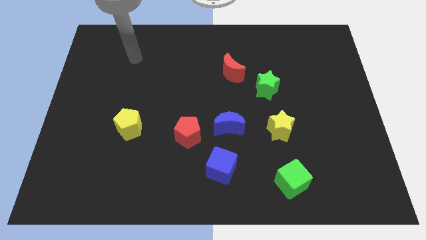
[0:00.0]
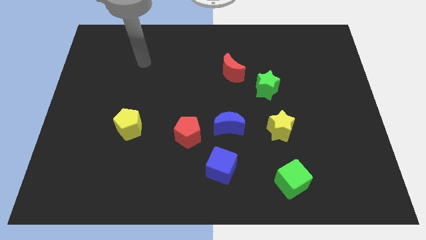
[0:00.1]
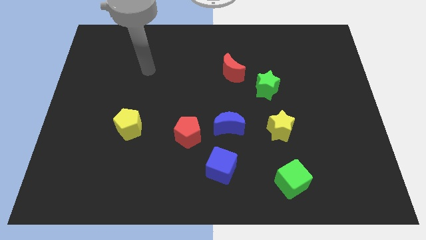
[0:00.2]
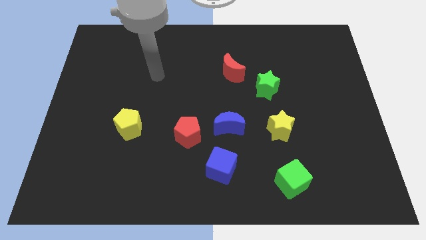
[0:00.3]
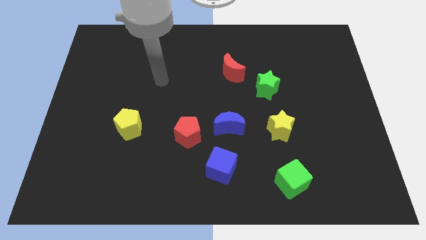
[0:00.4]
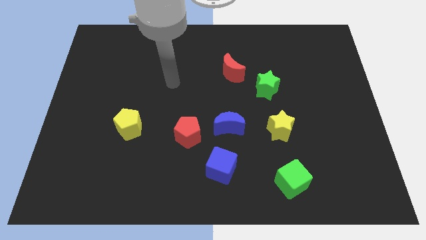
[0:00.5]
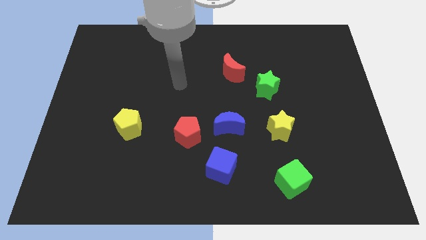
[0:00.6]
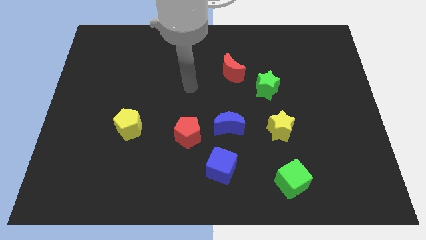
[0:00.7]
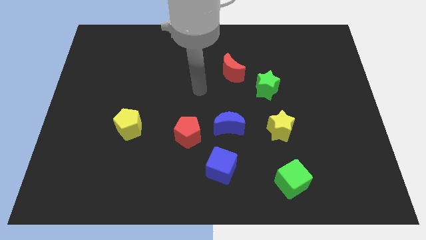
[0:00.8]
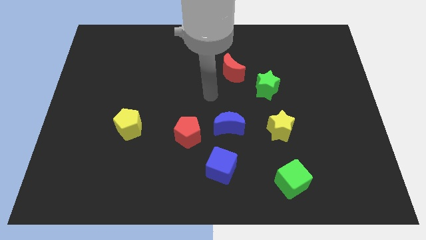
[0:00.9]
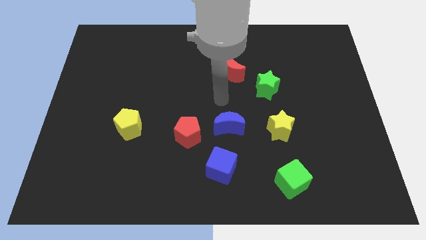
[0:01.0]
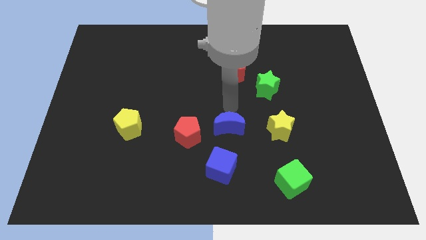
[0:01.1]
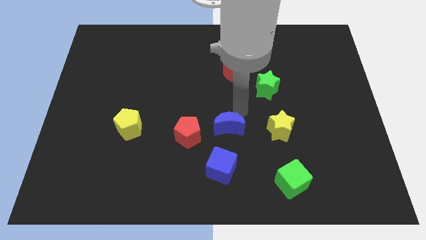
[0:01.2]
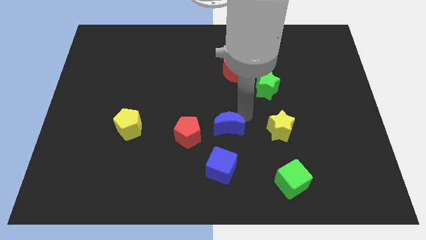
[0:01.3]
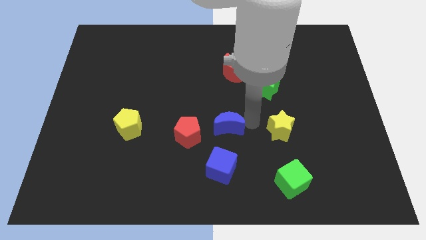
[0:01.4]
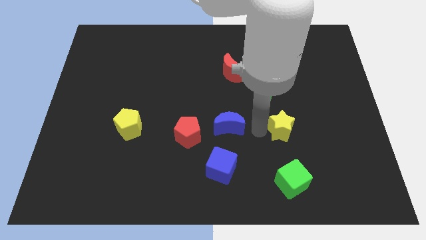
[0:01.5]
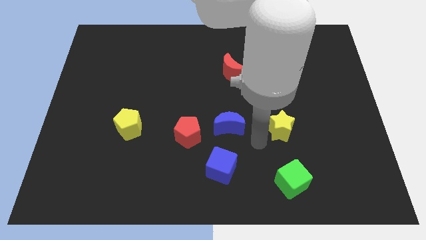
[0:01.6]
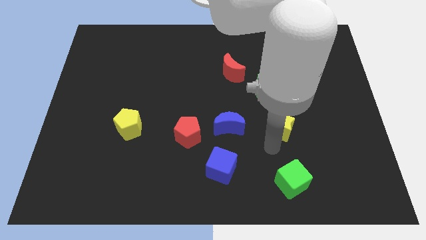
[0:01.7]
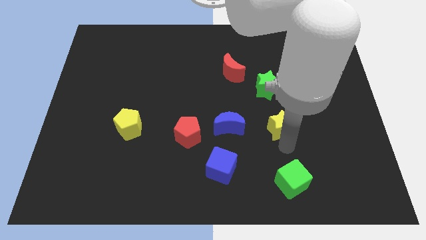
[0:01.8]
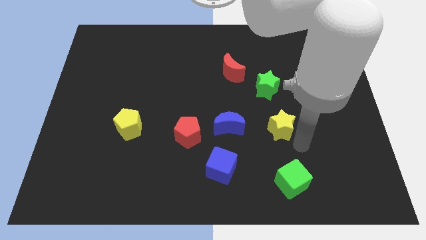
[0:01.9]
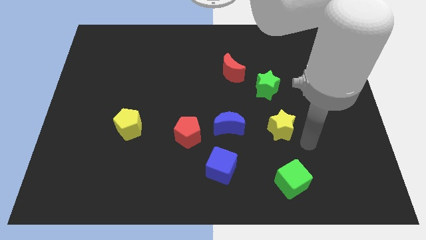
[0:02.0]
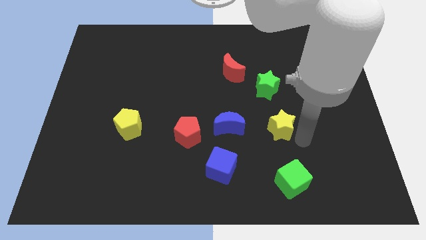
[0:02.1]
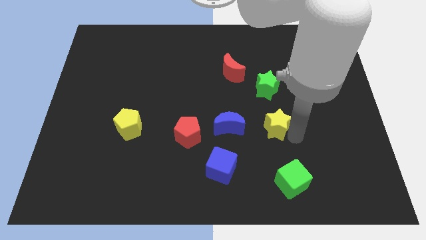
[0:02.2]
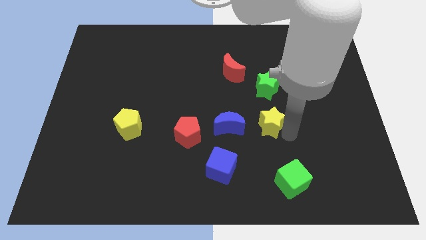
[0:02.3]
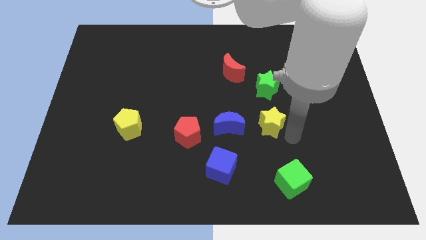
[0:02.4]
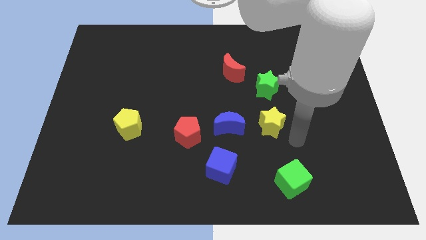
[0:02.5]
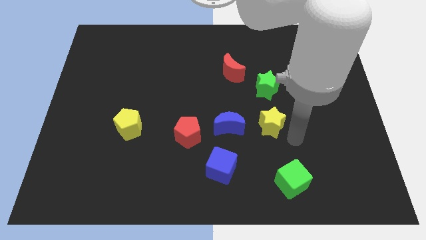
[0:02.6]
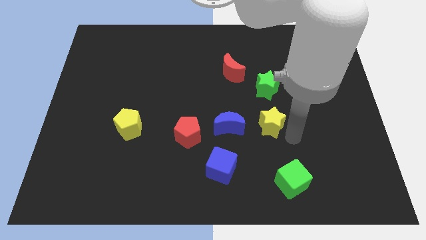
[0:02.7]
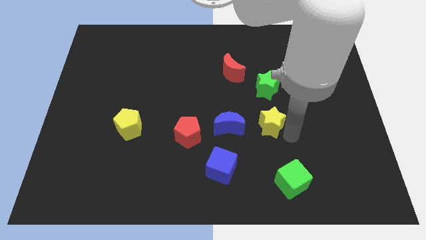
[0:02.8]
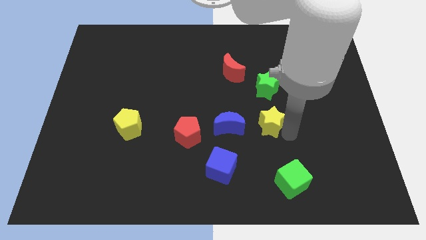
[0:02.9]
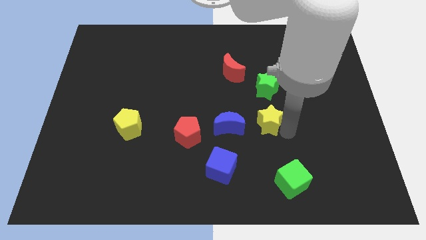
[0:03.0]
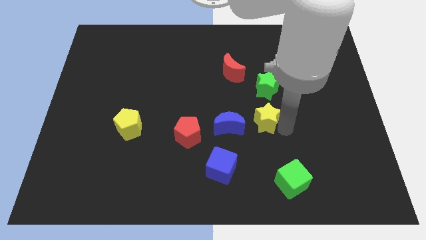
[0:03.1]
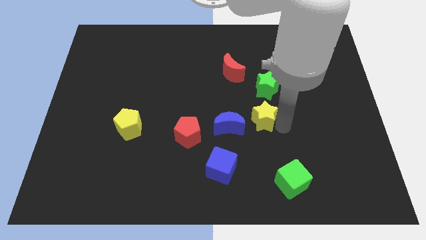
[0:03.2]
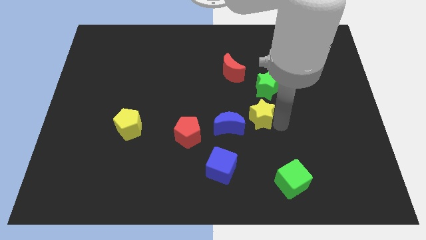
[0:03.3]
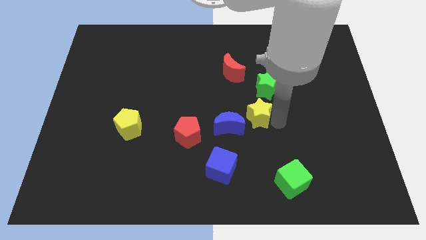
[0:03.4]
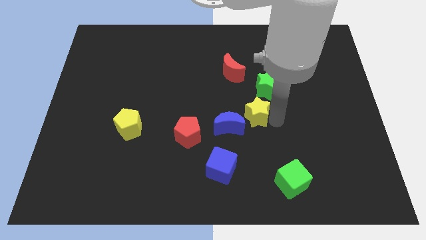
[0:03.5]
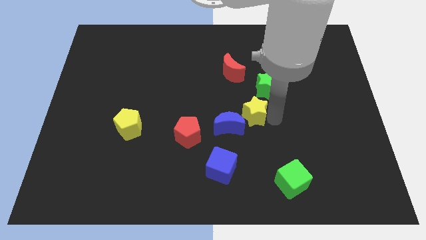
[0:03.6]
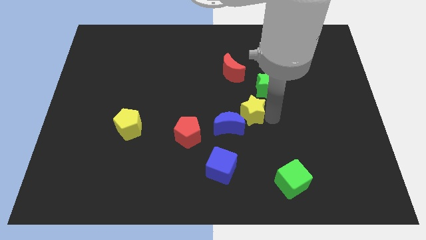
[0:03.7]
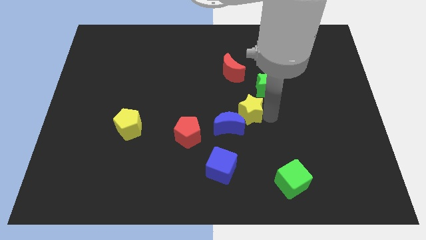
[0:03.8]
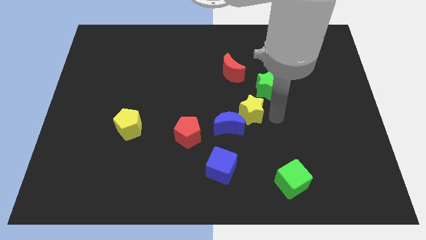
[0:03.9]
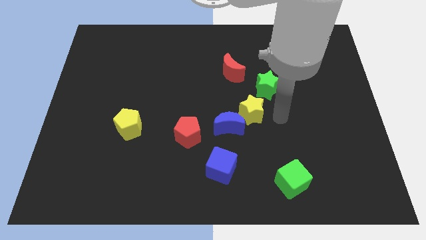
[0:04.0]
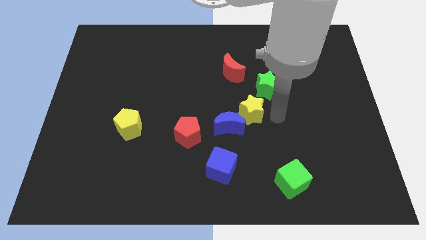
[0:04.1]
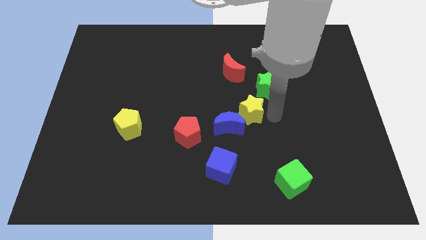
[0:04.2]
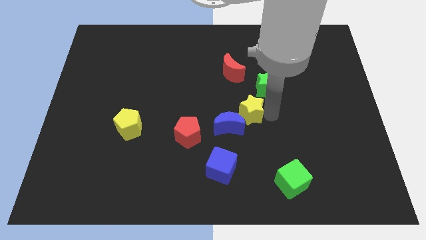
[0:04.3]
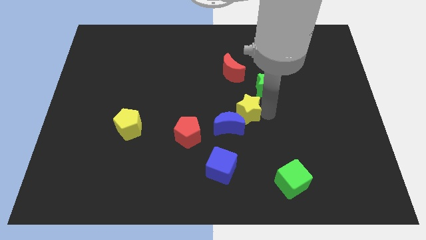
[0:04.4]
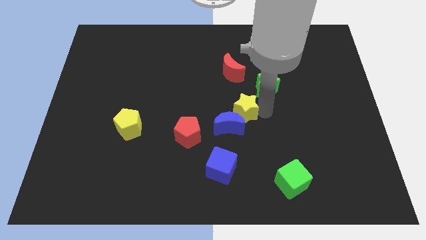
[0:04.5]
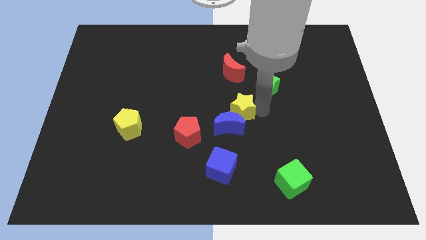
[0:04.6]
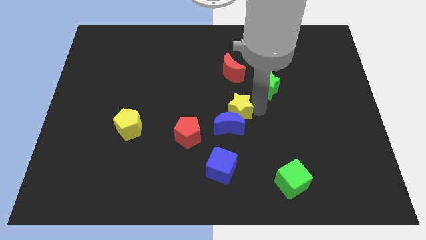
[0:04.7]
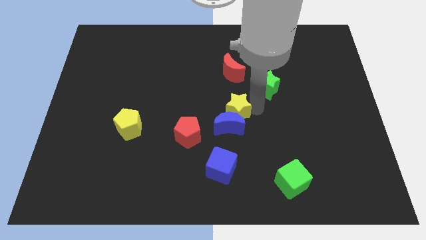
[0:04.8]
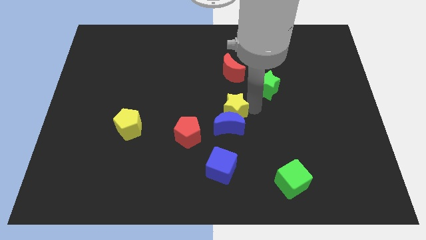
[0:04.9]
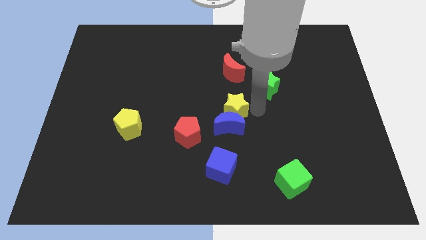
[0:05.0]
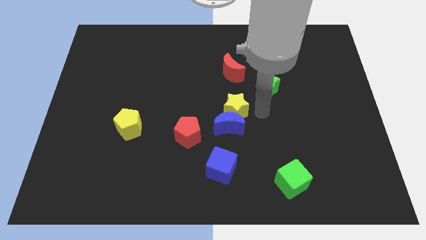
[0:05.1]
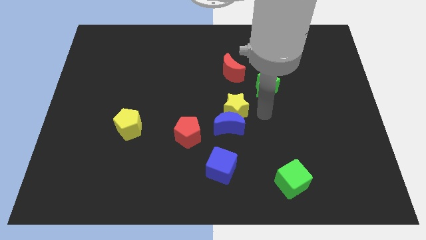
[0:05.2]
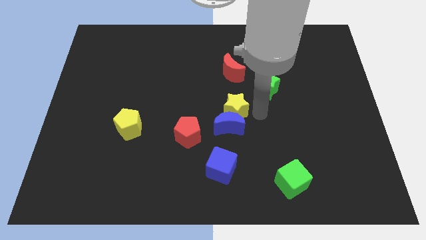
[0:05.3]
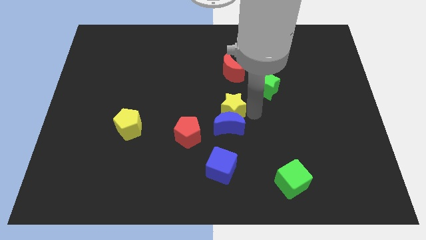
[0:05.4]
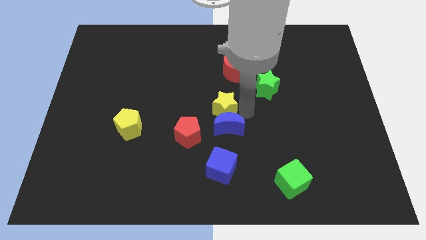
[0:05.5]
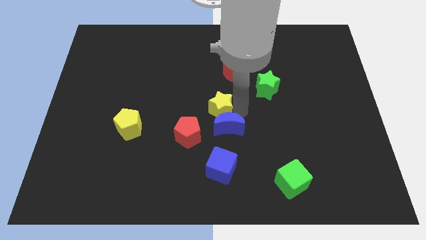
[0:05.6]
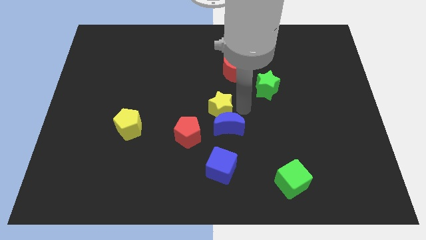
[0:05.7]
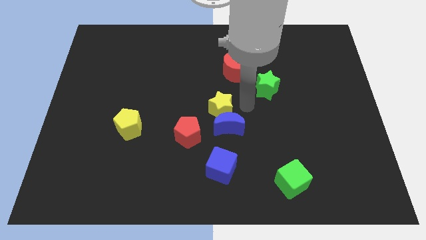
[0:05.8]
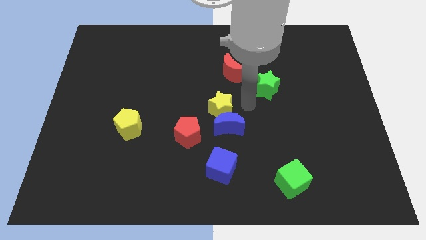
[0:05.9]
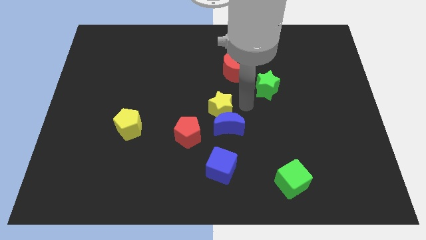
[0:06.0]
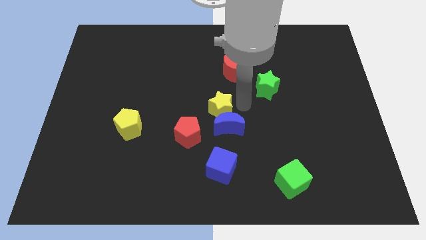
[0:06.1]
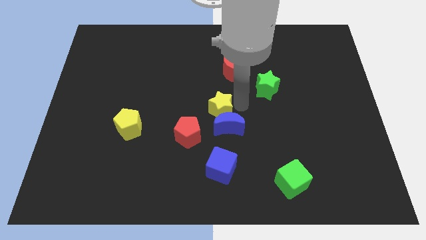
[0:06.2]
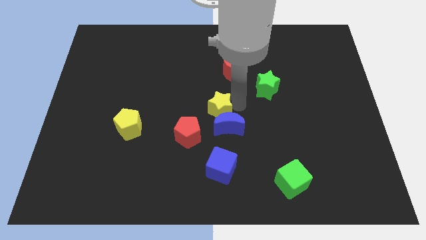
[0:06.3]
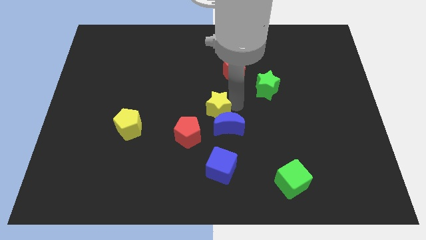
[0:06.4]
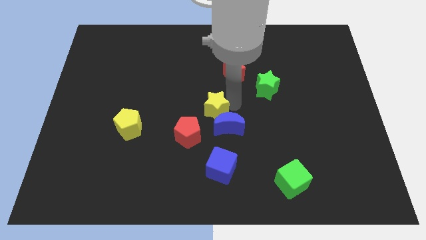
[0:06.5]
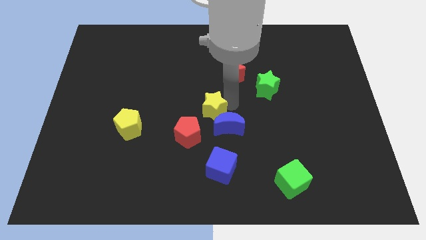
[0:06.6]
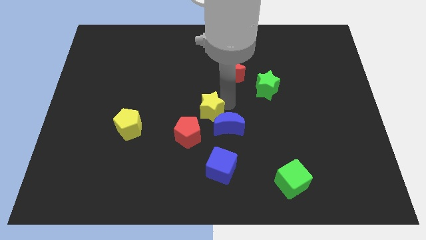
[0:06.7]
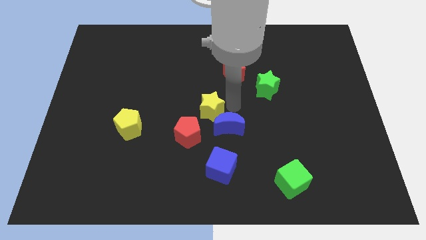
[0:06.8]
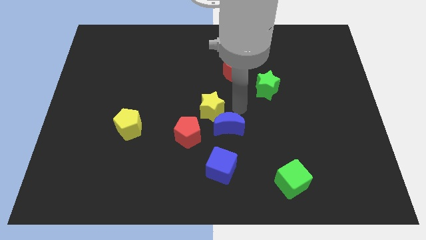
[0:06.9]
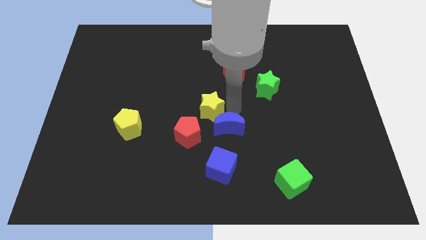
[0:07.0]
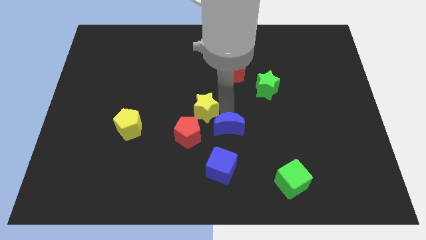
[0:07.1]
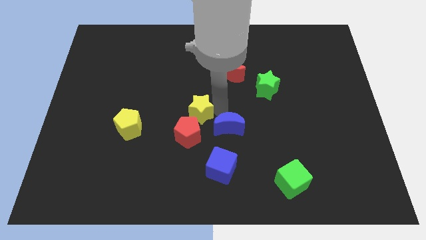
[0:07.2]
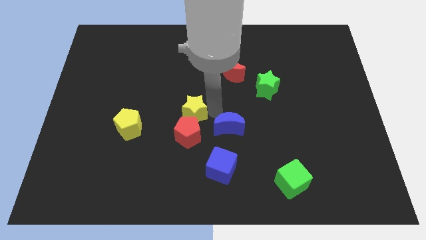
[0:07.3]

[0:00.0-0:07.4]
put the yellow star to the top left of the red pentagon

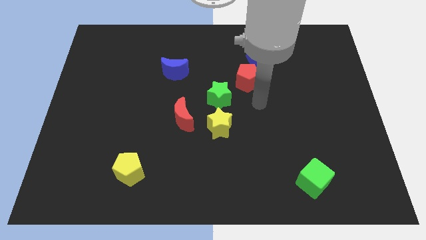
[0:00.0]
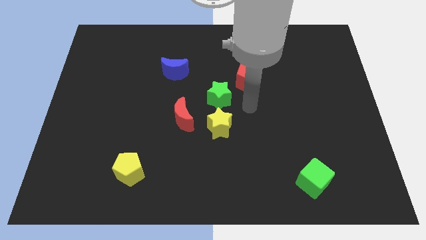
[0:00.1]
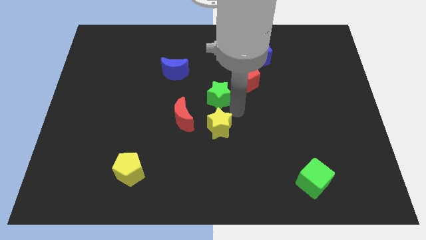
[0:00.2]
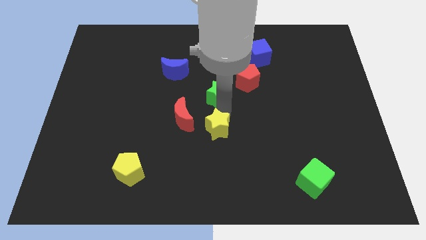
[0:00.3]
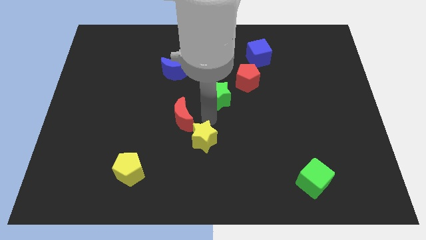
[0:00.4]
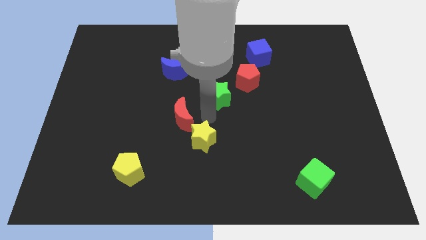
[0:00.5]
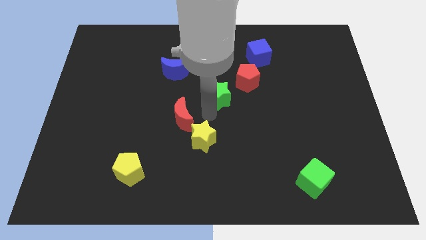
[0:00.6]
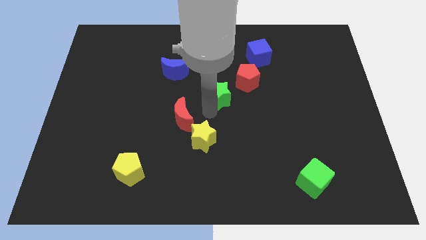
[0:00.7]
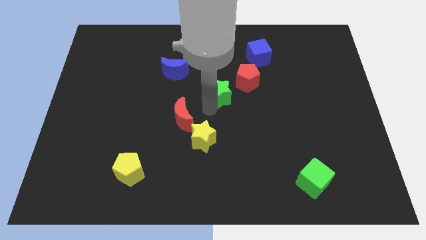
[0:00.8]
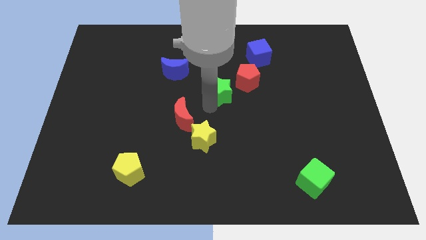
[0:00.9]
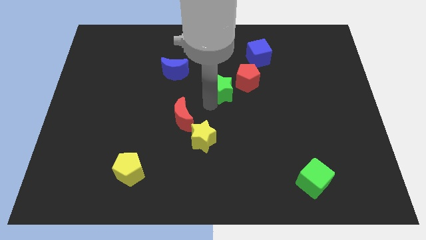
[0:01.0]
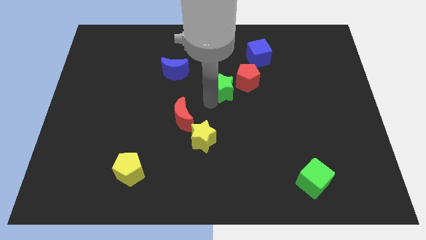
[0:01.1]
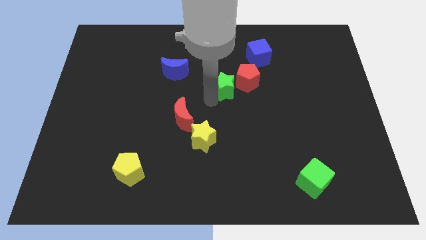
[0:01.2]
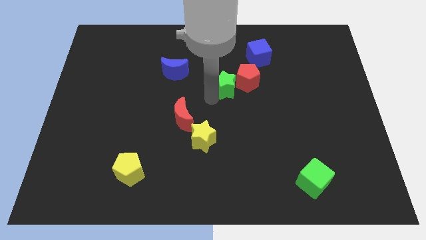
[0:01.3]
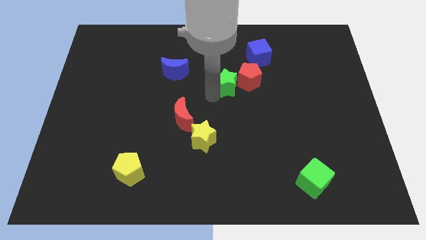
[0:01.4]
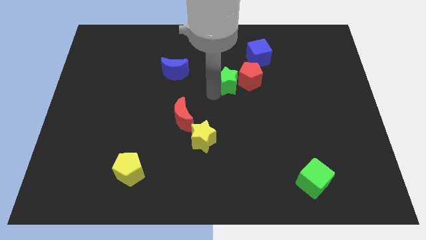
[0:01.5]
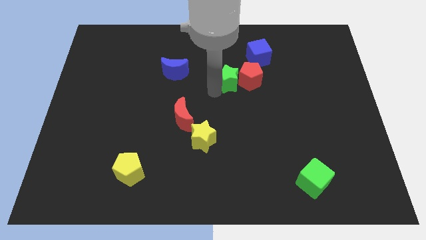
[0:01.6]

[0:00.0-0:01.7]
slide the green star to the bottom left of the blue cube
